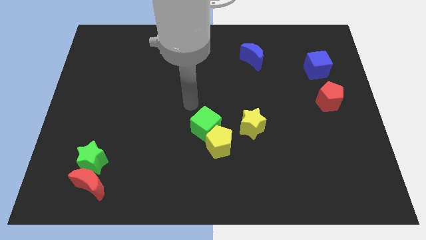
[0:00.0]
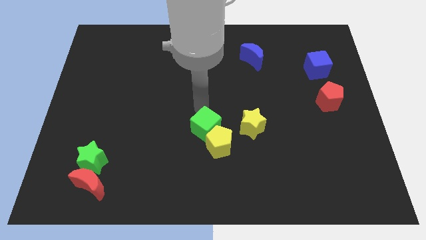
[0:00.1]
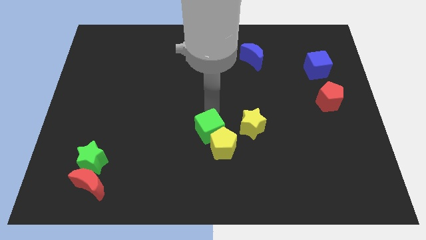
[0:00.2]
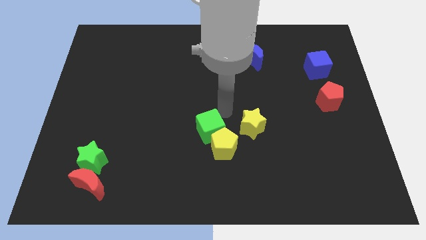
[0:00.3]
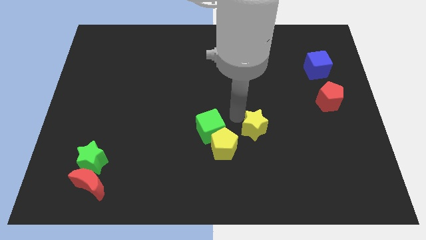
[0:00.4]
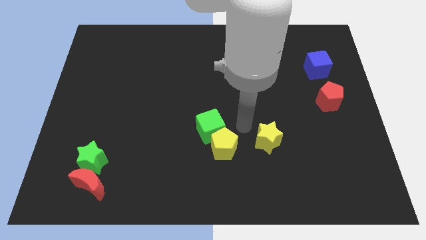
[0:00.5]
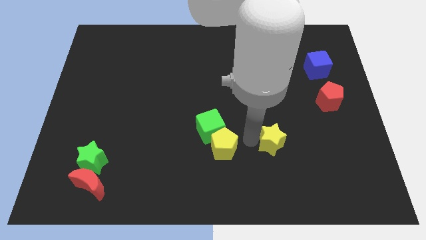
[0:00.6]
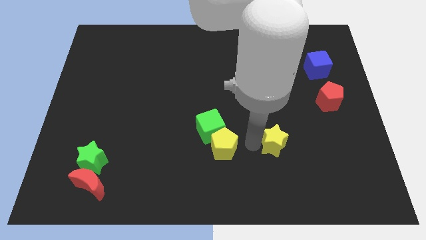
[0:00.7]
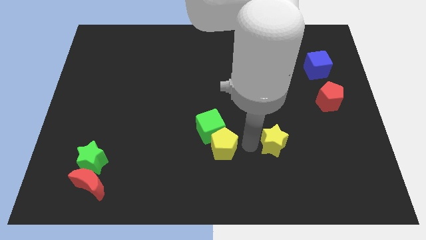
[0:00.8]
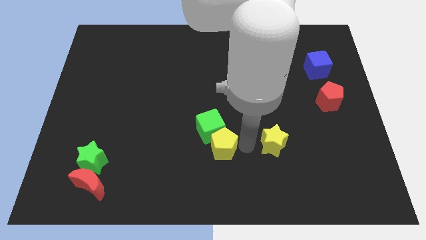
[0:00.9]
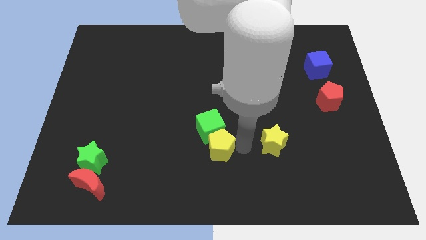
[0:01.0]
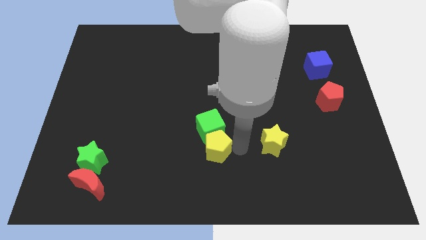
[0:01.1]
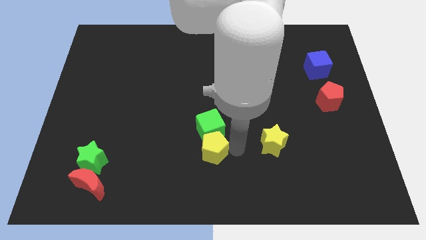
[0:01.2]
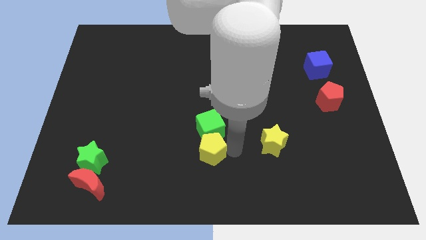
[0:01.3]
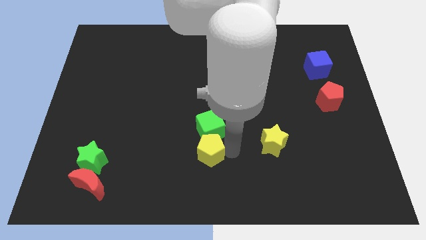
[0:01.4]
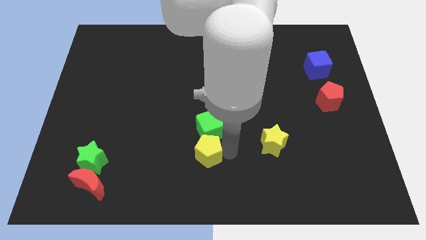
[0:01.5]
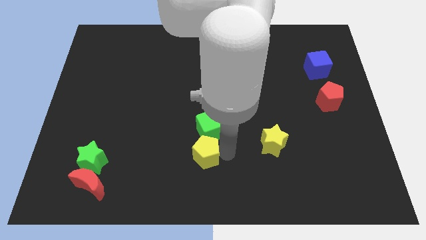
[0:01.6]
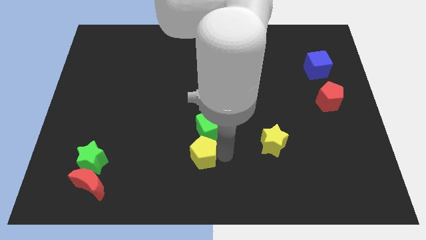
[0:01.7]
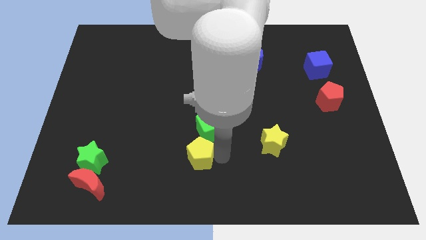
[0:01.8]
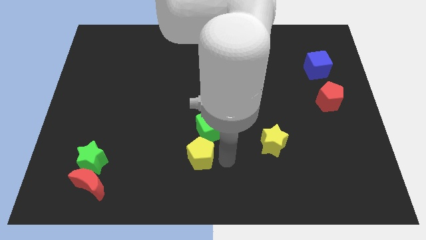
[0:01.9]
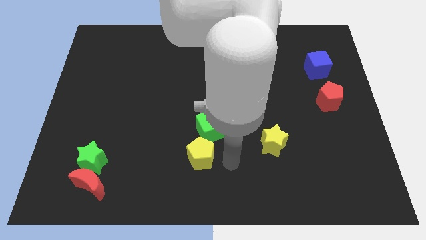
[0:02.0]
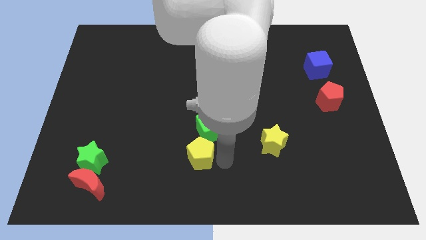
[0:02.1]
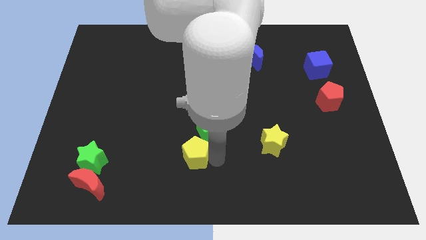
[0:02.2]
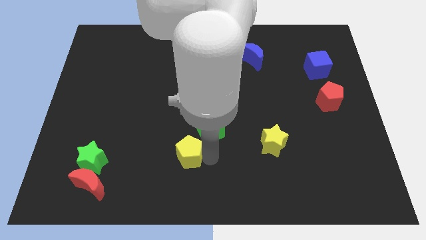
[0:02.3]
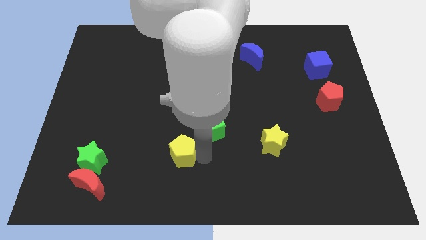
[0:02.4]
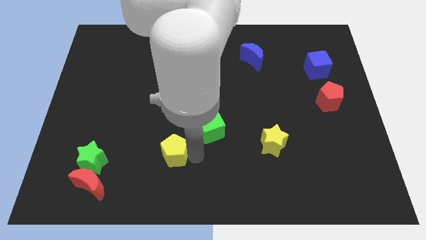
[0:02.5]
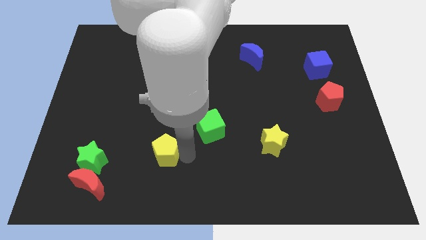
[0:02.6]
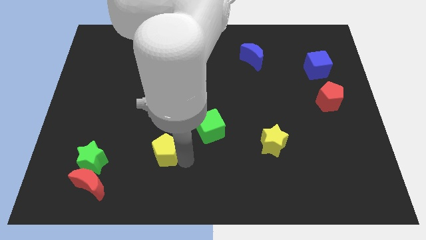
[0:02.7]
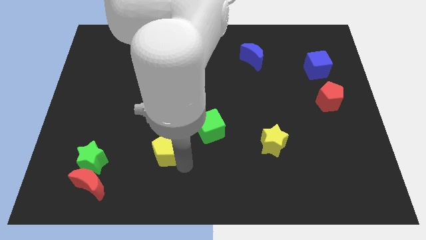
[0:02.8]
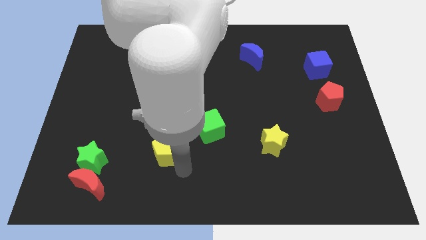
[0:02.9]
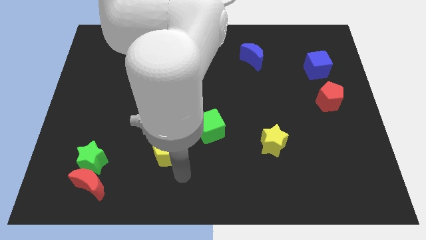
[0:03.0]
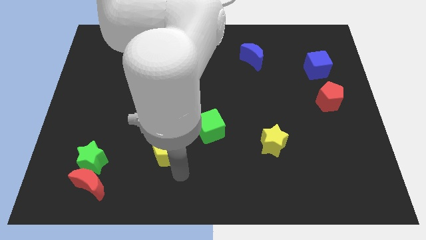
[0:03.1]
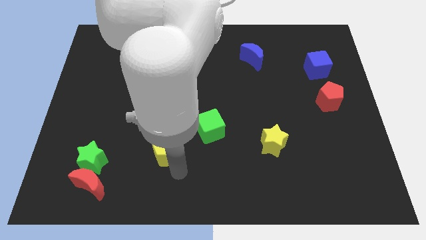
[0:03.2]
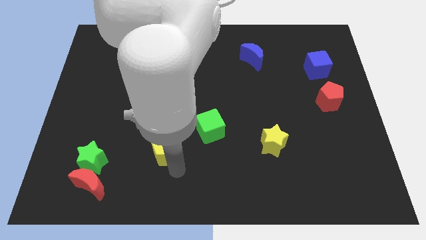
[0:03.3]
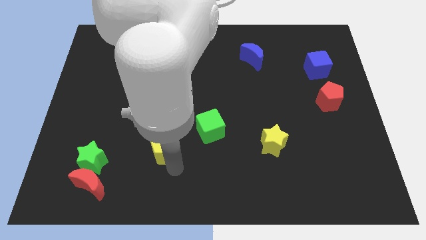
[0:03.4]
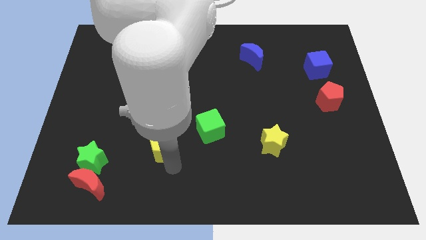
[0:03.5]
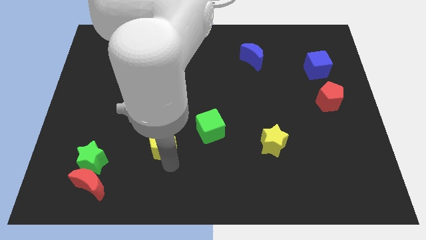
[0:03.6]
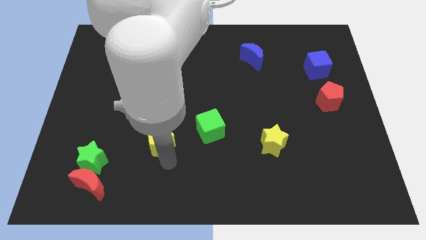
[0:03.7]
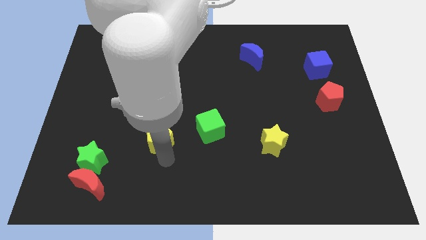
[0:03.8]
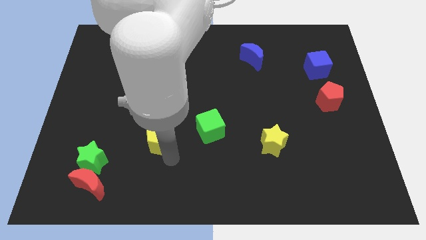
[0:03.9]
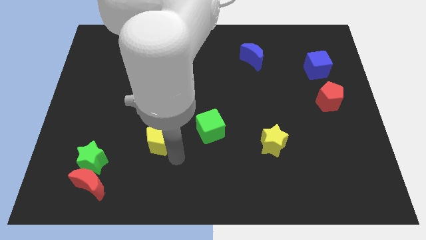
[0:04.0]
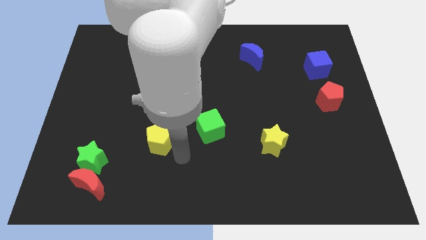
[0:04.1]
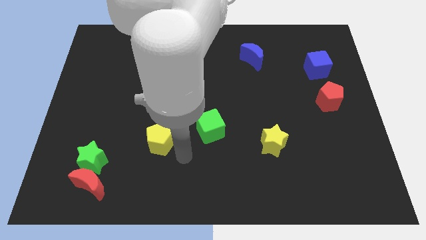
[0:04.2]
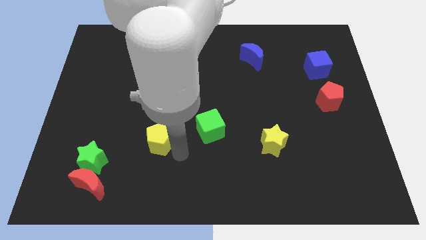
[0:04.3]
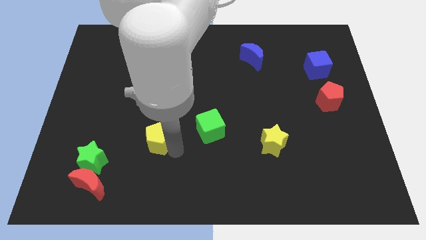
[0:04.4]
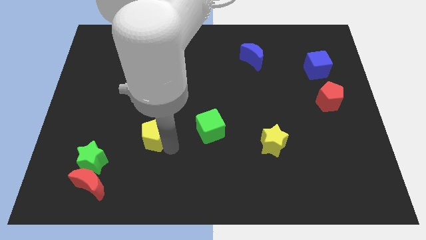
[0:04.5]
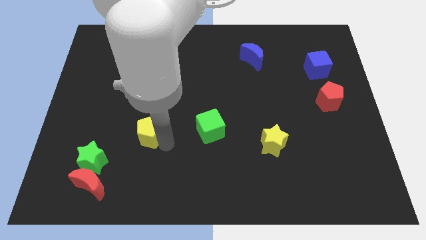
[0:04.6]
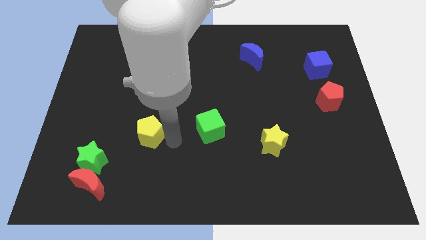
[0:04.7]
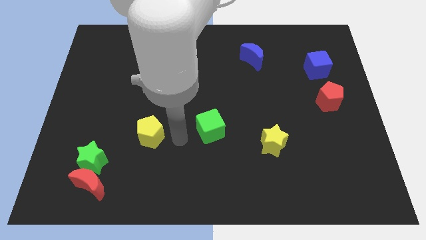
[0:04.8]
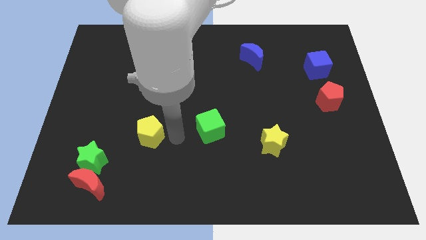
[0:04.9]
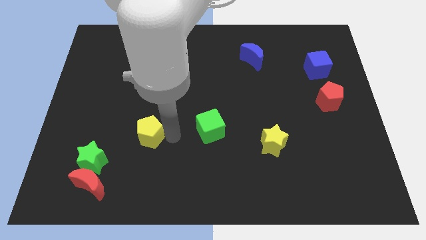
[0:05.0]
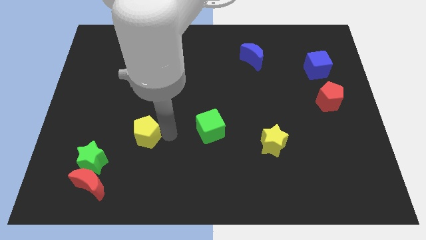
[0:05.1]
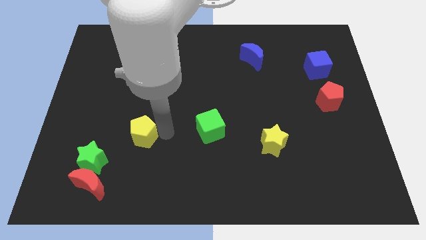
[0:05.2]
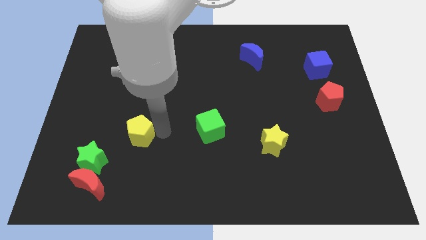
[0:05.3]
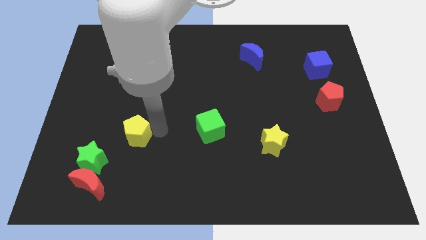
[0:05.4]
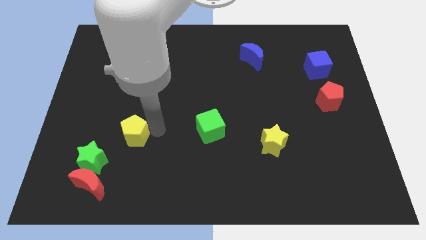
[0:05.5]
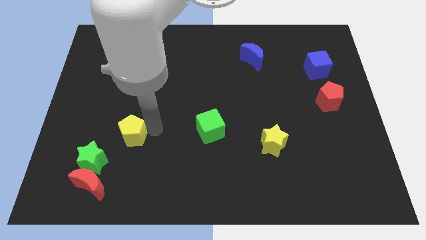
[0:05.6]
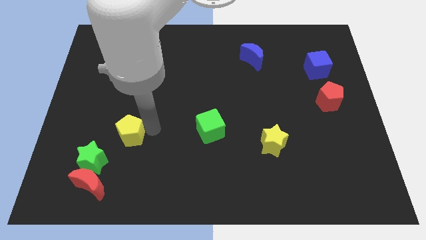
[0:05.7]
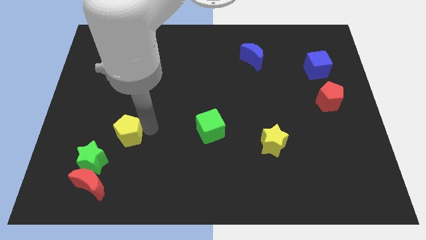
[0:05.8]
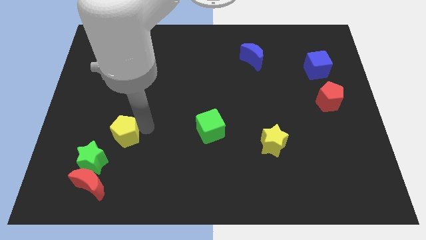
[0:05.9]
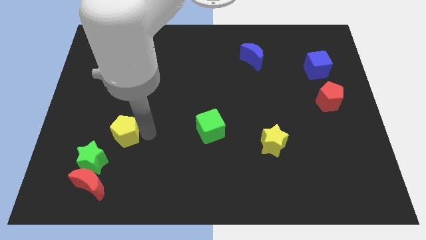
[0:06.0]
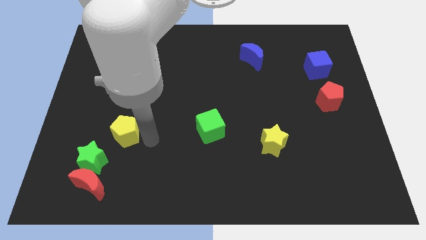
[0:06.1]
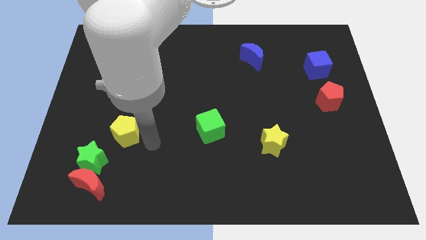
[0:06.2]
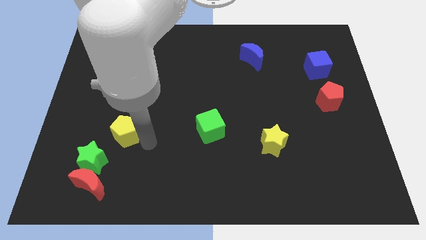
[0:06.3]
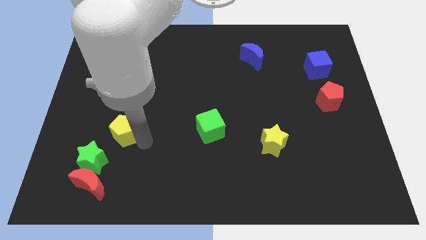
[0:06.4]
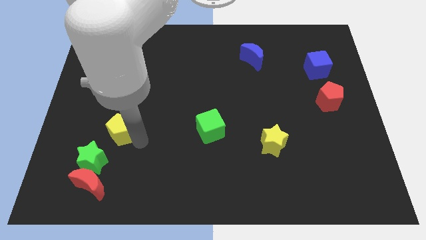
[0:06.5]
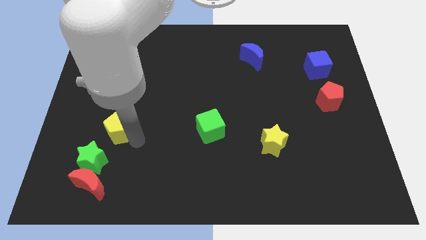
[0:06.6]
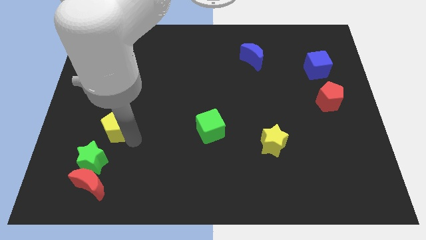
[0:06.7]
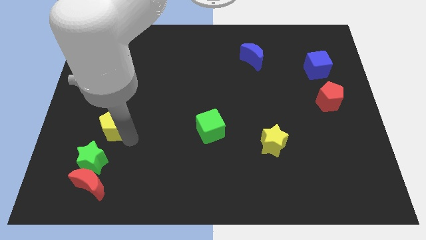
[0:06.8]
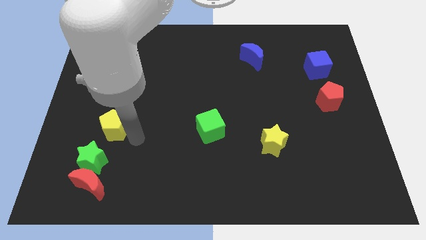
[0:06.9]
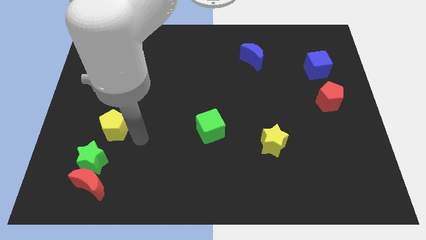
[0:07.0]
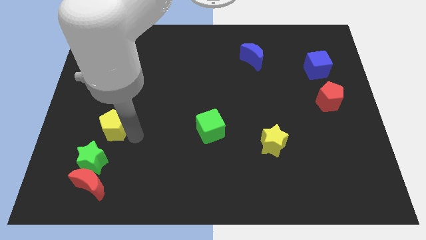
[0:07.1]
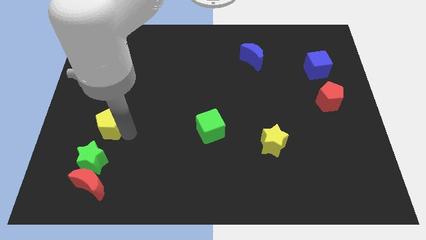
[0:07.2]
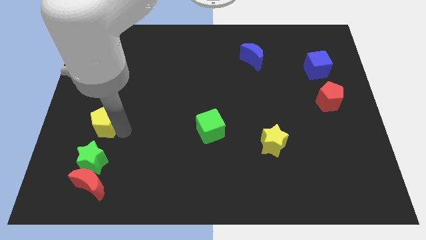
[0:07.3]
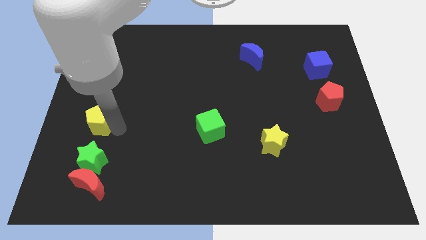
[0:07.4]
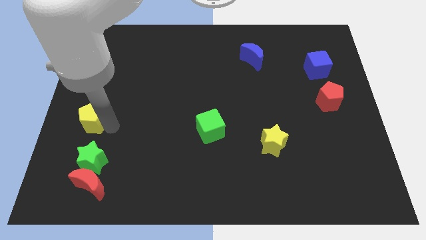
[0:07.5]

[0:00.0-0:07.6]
move the yellow pentagon to the center left

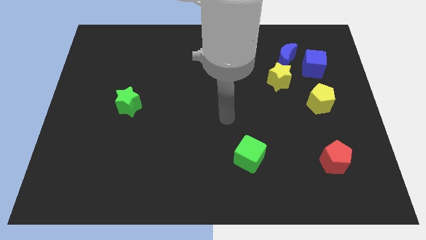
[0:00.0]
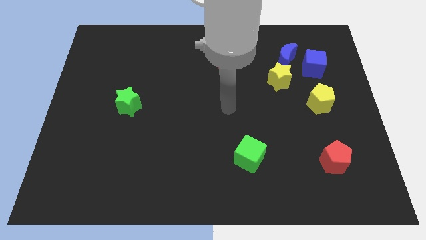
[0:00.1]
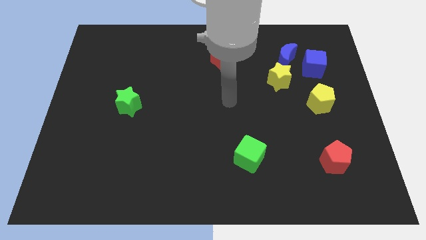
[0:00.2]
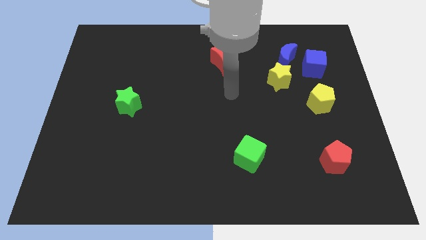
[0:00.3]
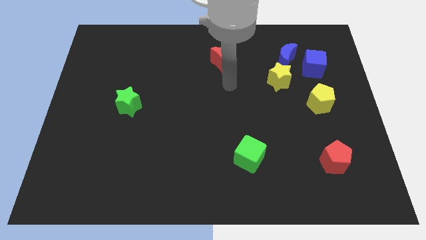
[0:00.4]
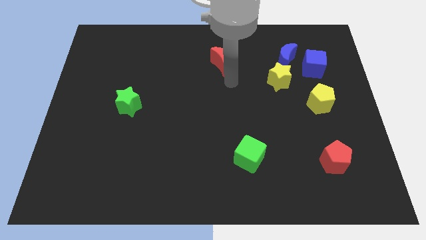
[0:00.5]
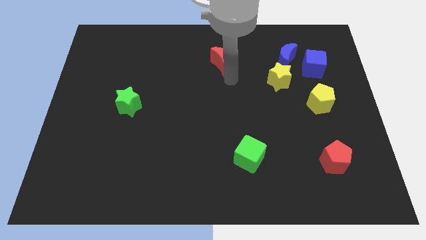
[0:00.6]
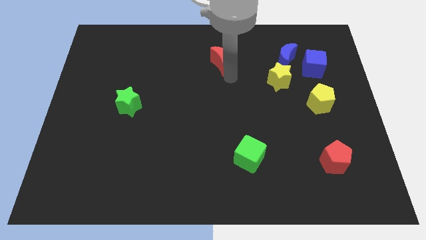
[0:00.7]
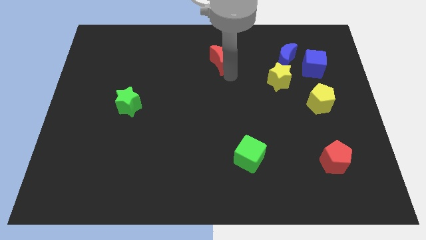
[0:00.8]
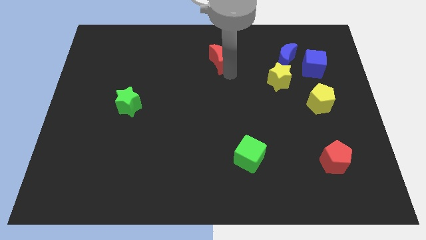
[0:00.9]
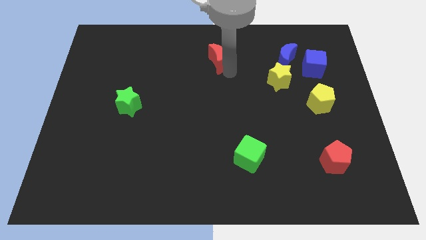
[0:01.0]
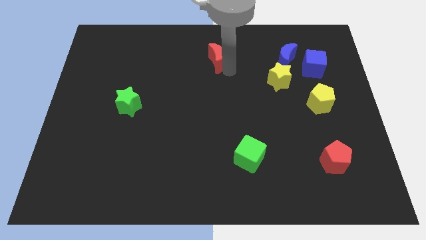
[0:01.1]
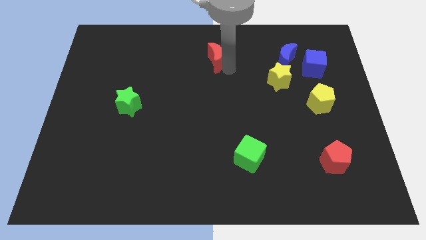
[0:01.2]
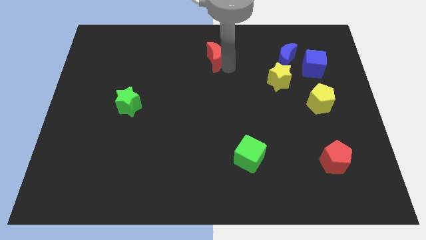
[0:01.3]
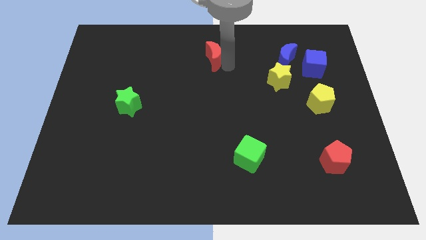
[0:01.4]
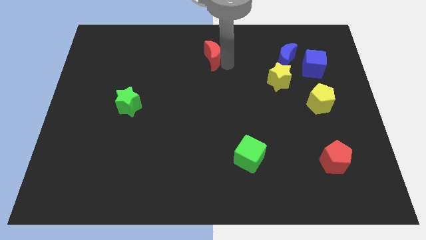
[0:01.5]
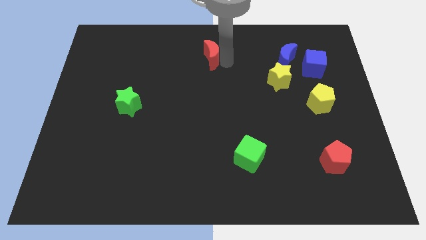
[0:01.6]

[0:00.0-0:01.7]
slide the red moon to the towards your base
